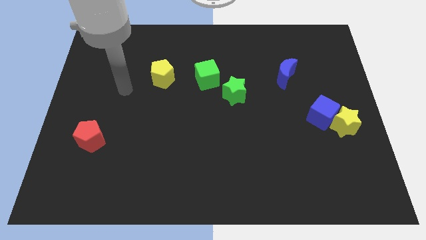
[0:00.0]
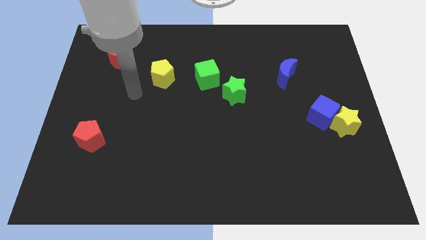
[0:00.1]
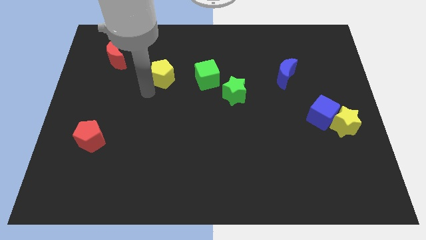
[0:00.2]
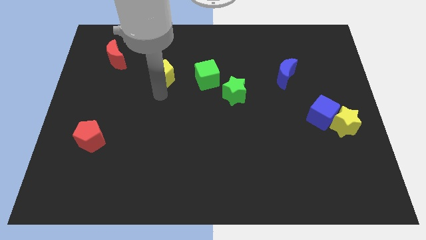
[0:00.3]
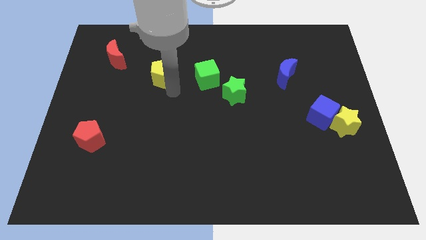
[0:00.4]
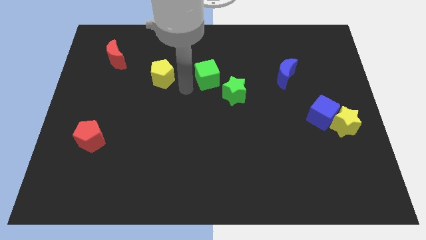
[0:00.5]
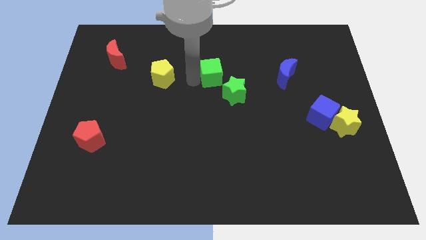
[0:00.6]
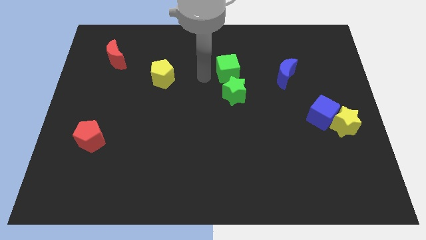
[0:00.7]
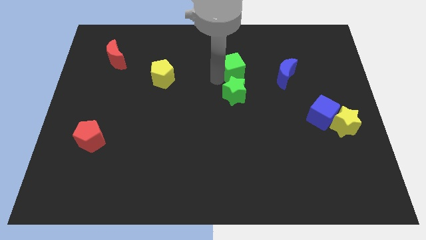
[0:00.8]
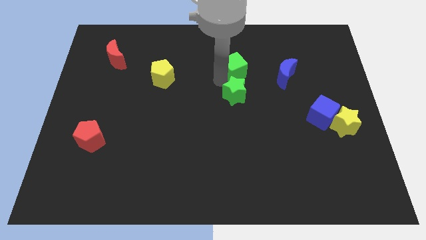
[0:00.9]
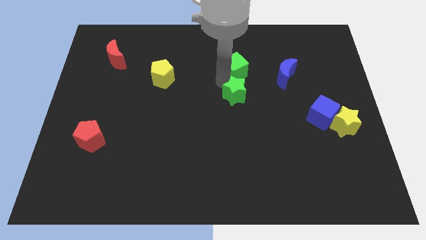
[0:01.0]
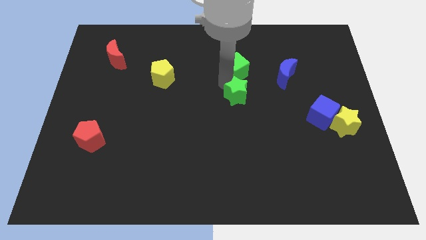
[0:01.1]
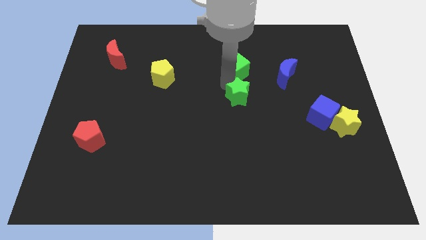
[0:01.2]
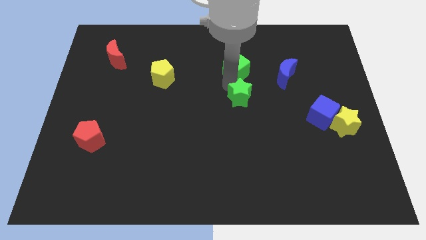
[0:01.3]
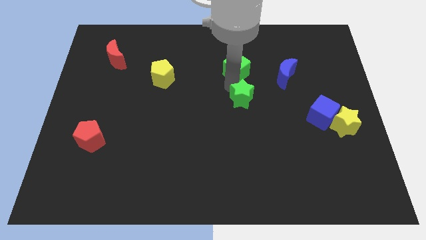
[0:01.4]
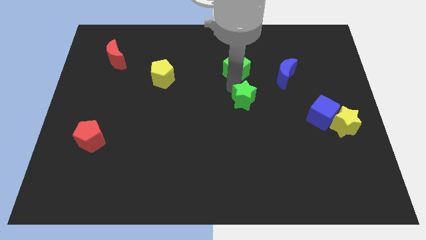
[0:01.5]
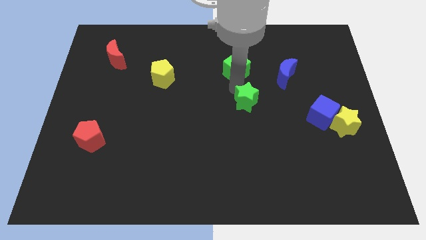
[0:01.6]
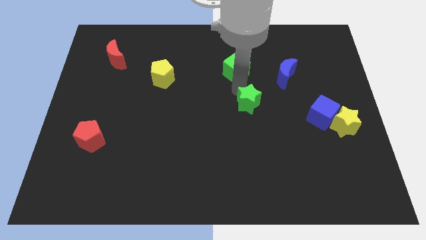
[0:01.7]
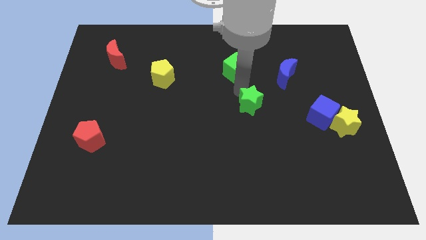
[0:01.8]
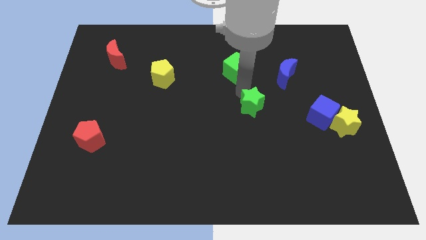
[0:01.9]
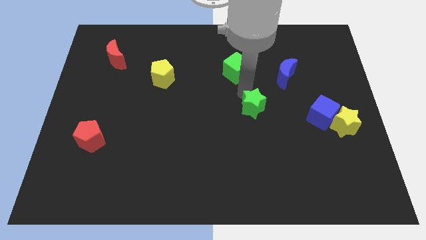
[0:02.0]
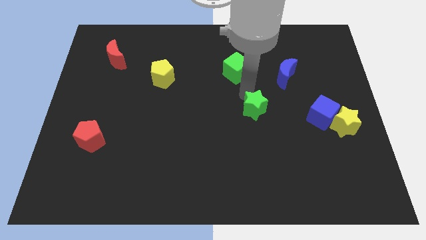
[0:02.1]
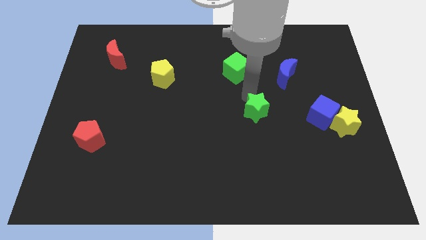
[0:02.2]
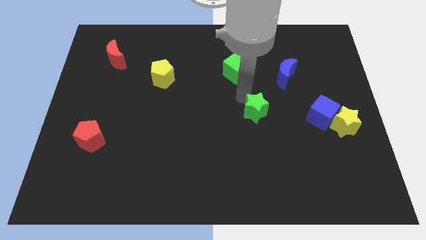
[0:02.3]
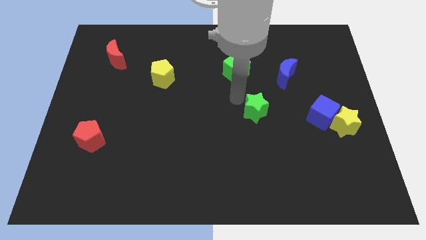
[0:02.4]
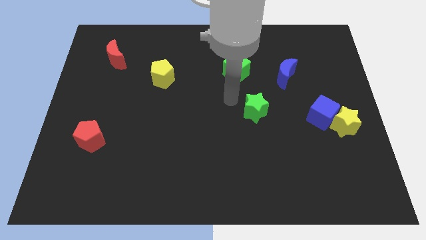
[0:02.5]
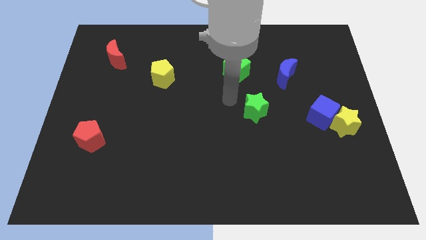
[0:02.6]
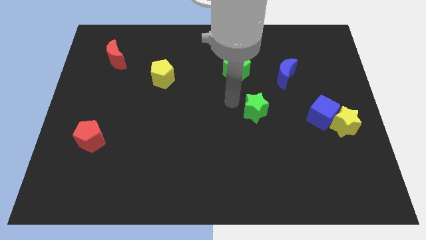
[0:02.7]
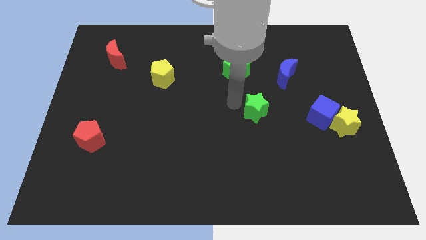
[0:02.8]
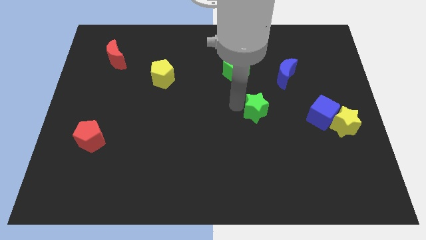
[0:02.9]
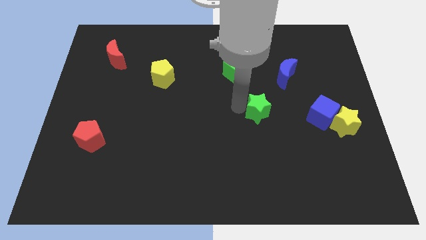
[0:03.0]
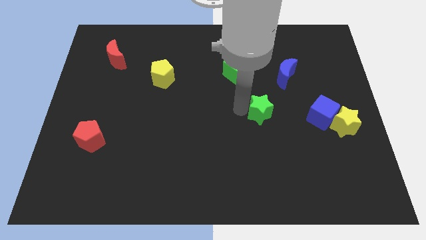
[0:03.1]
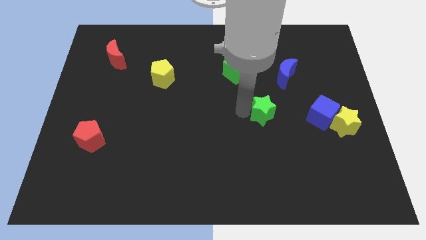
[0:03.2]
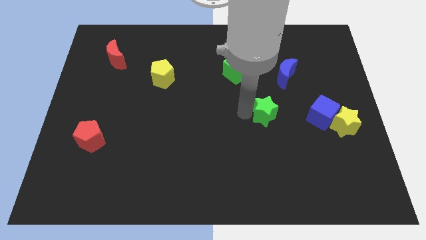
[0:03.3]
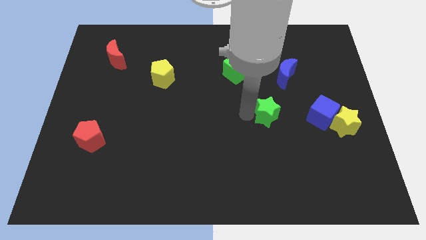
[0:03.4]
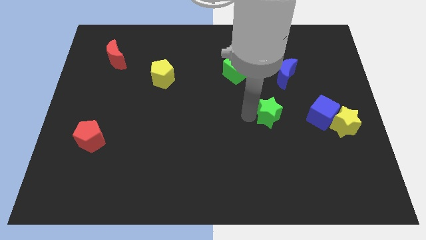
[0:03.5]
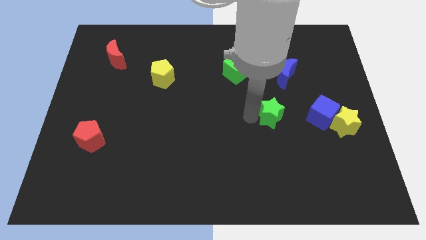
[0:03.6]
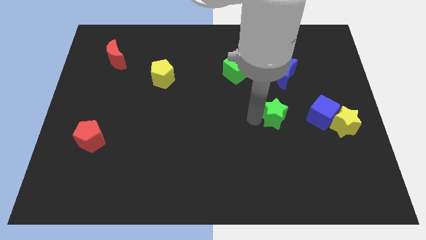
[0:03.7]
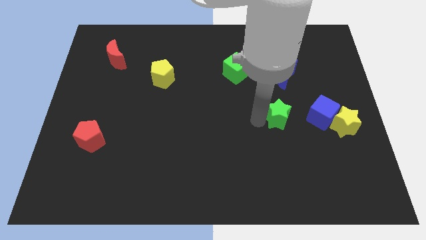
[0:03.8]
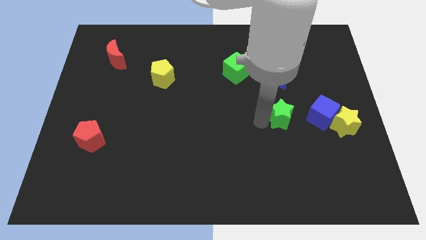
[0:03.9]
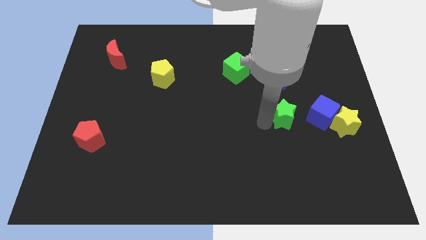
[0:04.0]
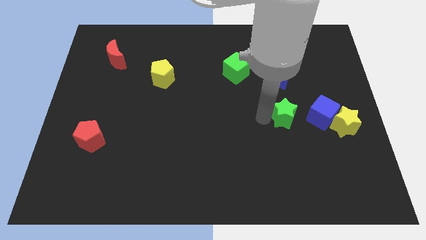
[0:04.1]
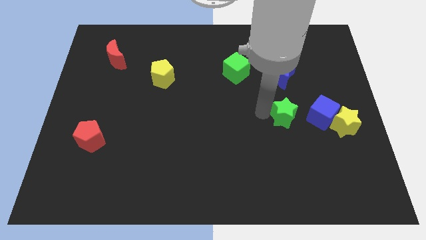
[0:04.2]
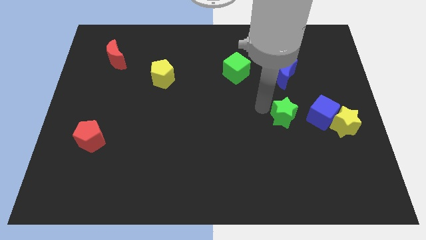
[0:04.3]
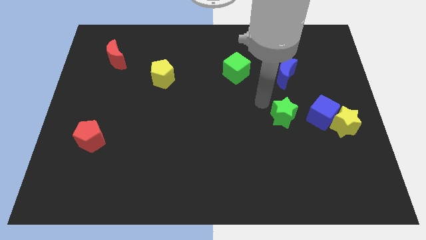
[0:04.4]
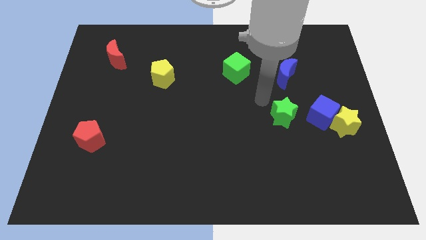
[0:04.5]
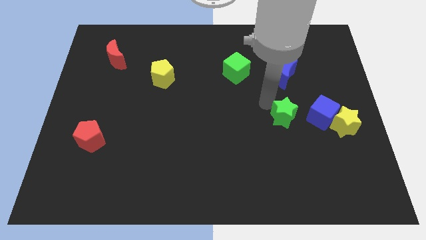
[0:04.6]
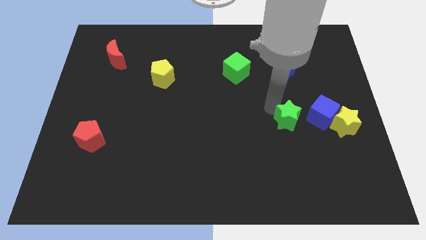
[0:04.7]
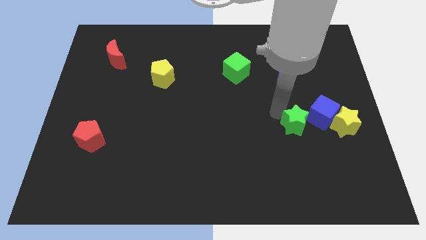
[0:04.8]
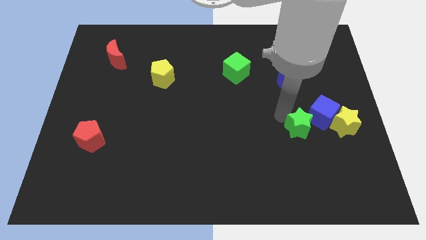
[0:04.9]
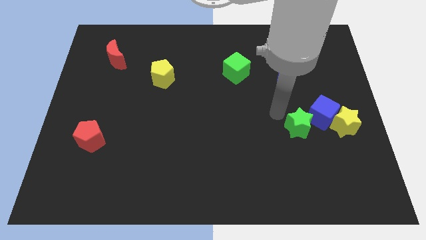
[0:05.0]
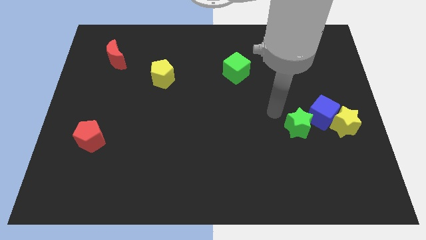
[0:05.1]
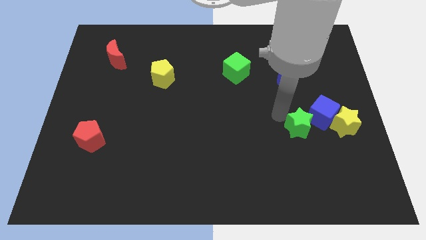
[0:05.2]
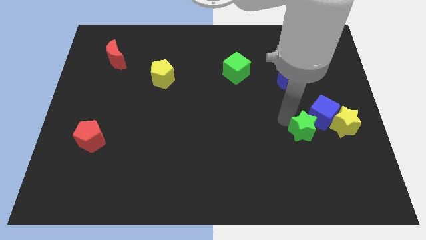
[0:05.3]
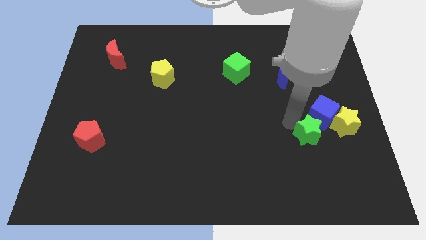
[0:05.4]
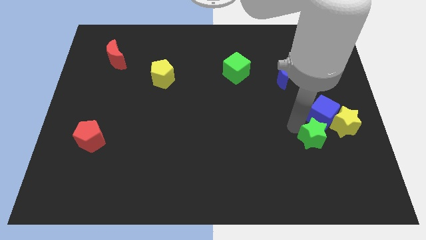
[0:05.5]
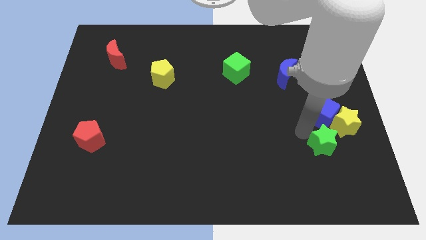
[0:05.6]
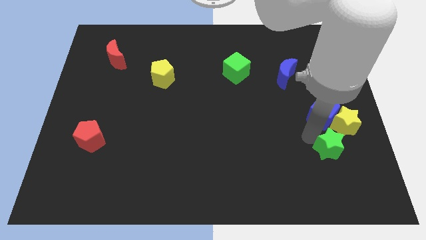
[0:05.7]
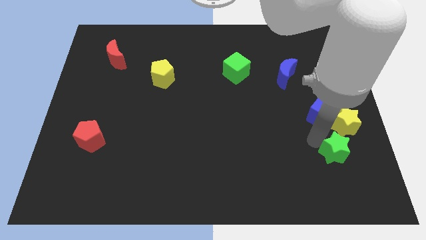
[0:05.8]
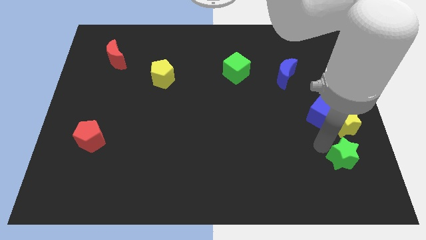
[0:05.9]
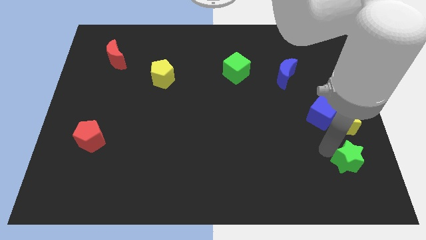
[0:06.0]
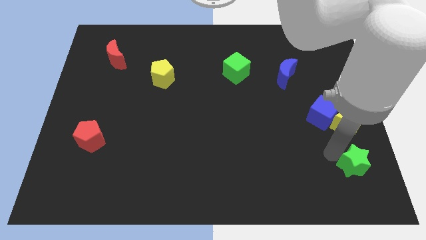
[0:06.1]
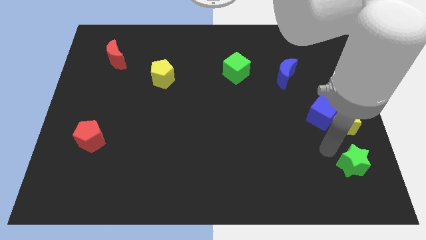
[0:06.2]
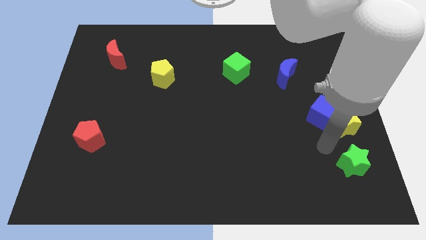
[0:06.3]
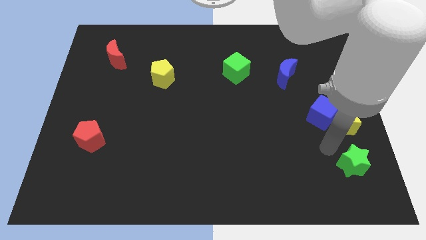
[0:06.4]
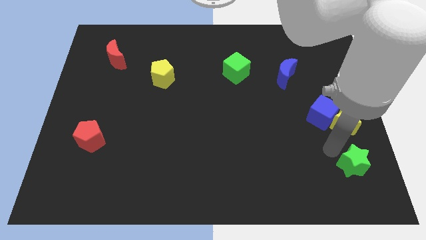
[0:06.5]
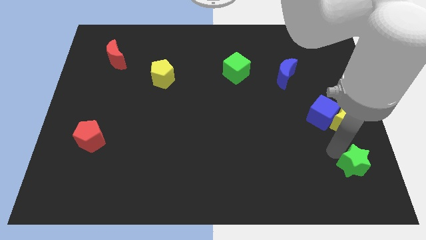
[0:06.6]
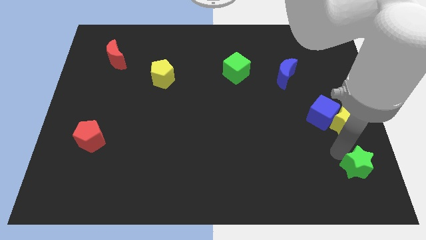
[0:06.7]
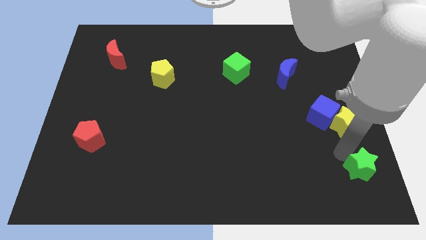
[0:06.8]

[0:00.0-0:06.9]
move the green star to the lower right corner

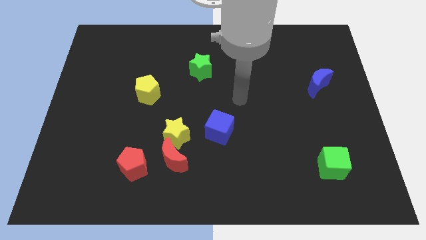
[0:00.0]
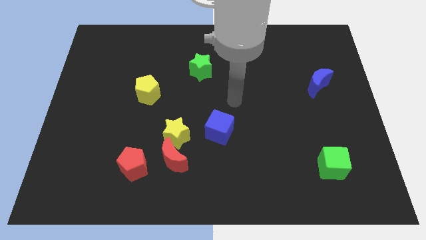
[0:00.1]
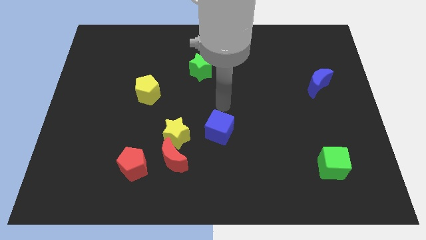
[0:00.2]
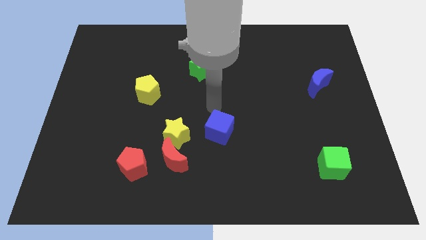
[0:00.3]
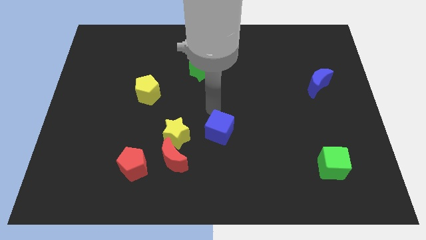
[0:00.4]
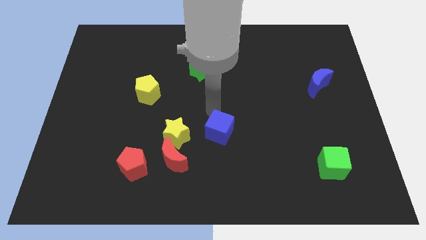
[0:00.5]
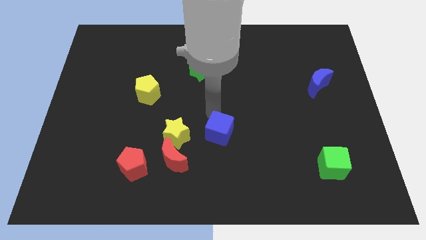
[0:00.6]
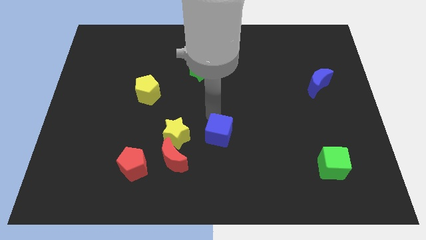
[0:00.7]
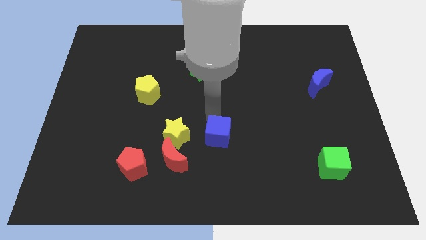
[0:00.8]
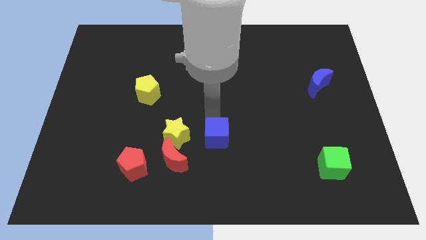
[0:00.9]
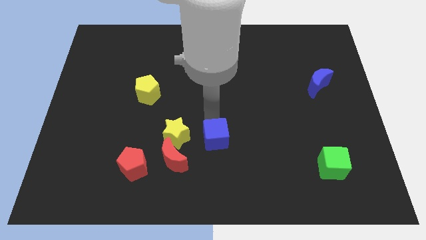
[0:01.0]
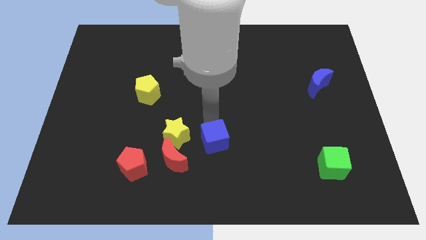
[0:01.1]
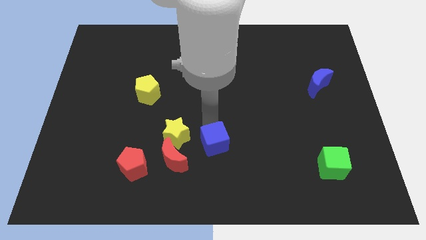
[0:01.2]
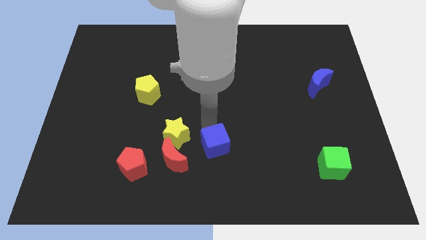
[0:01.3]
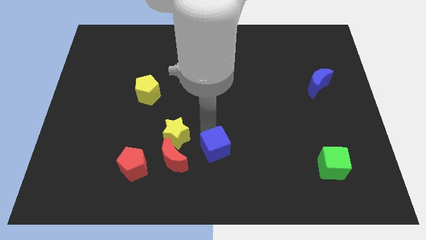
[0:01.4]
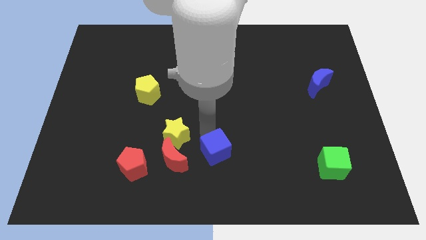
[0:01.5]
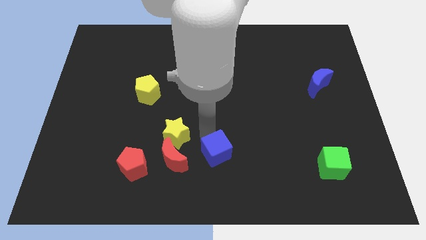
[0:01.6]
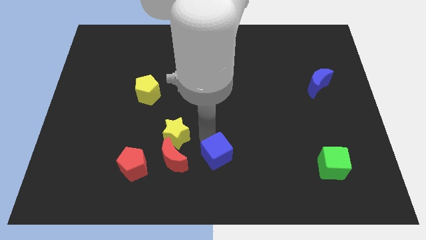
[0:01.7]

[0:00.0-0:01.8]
move the blue cube to the bottom side
